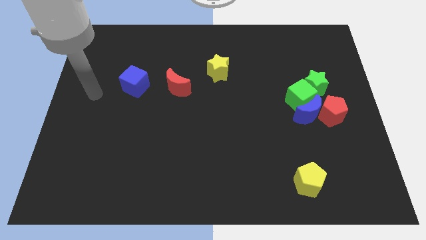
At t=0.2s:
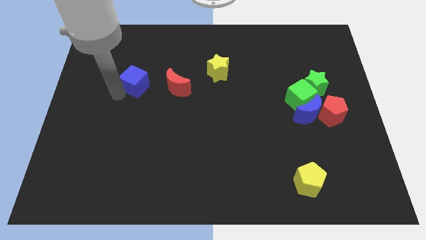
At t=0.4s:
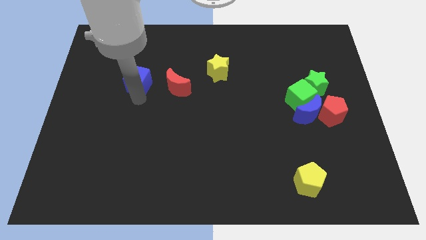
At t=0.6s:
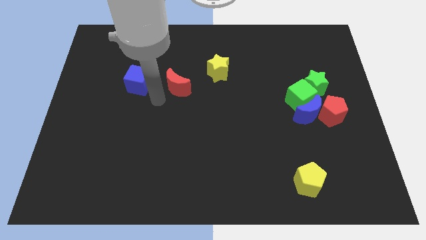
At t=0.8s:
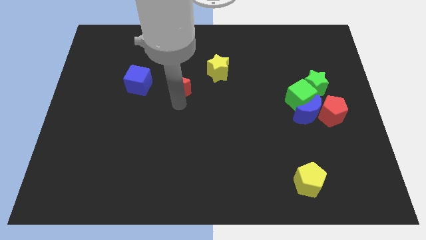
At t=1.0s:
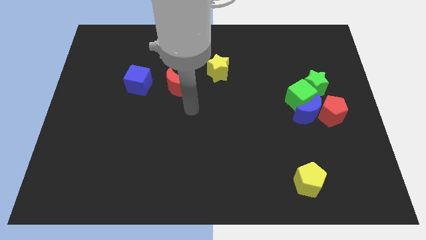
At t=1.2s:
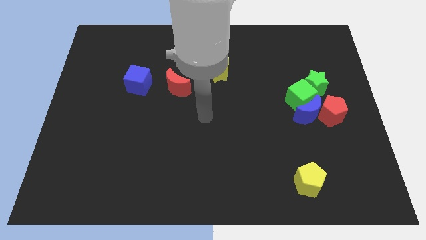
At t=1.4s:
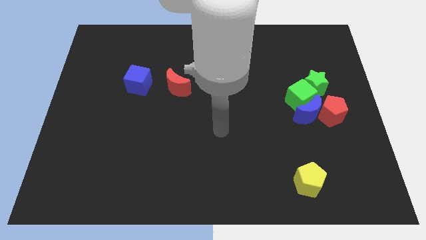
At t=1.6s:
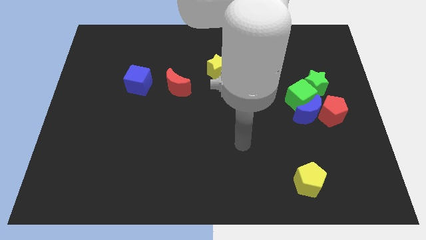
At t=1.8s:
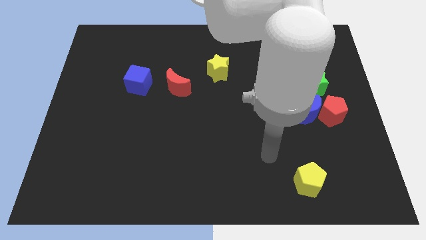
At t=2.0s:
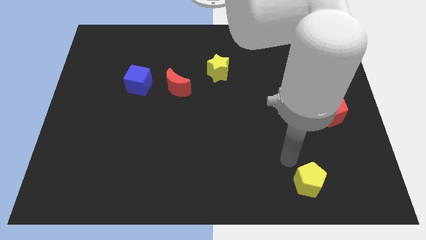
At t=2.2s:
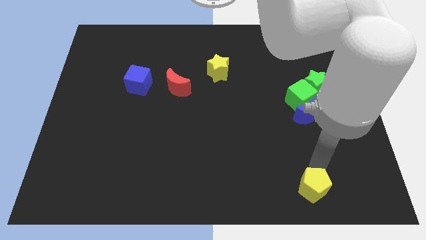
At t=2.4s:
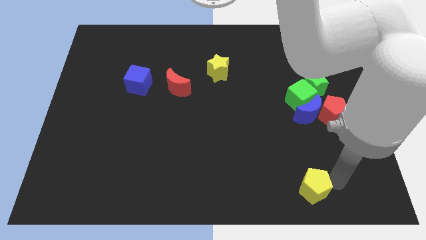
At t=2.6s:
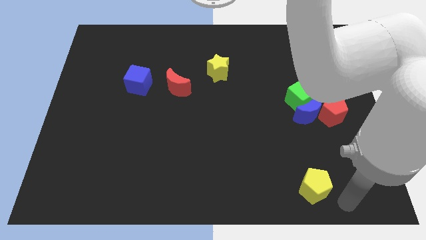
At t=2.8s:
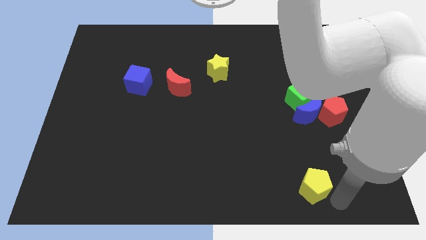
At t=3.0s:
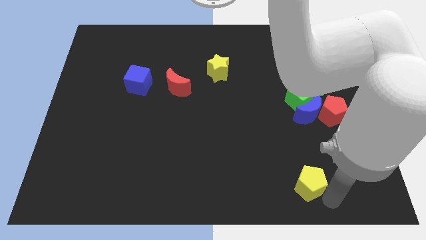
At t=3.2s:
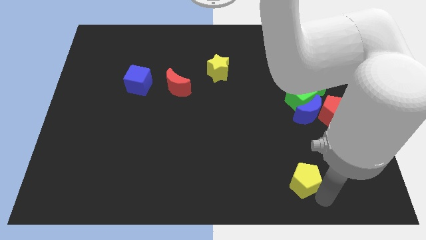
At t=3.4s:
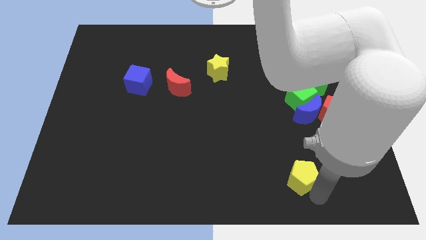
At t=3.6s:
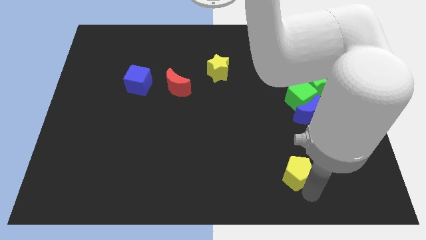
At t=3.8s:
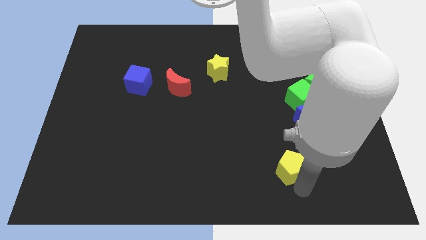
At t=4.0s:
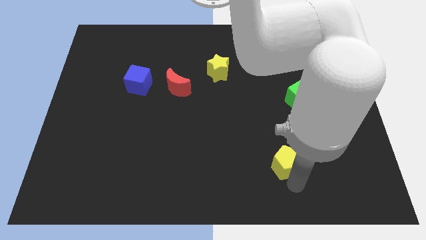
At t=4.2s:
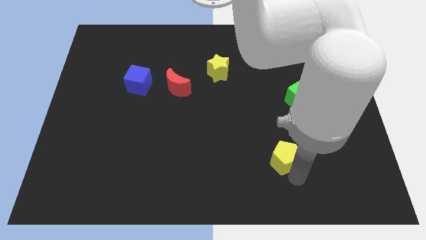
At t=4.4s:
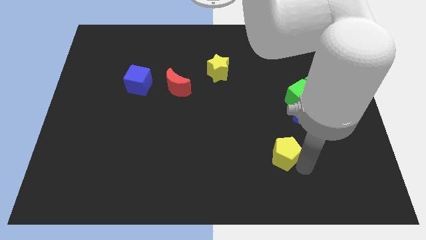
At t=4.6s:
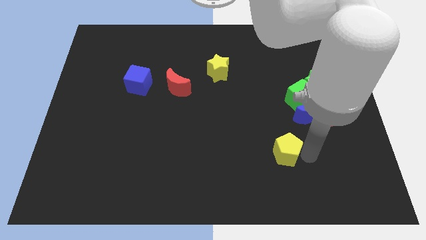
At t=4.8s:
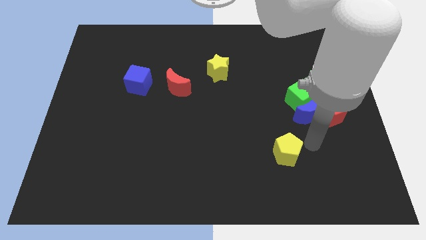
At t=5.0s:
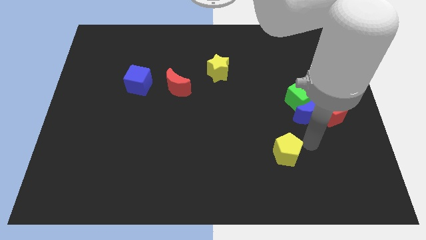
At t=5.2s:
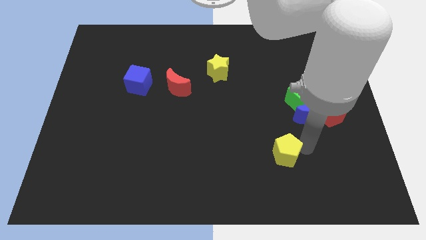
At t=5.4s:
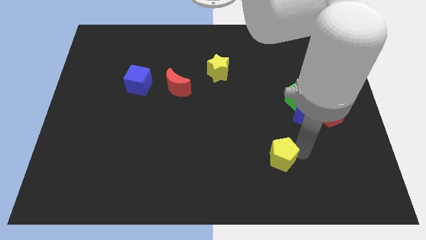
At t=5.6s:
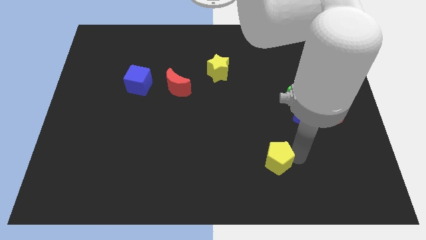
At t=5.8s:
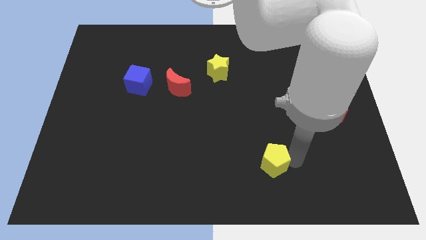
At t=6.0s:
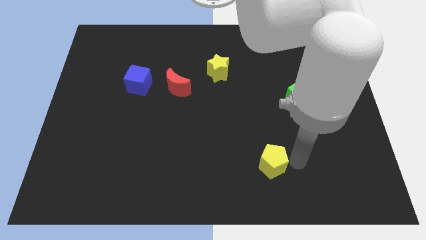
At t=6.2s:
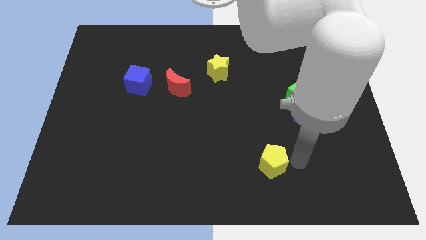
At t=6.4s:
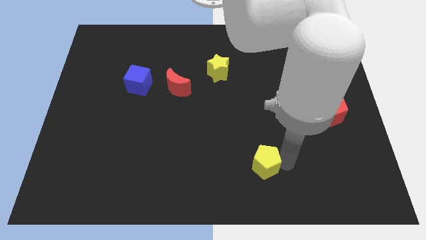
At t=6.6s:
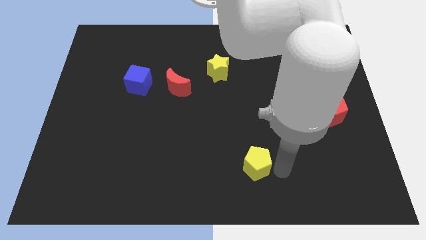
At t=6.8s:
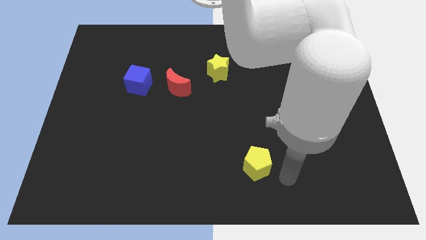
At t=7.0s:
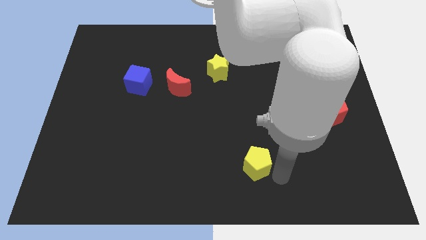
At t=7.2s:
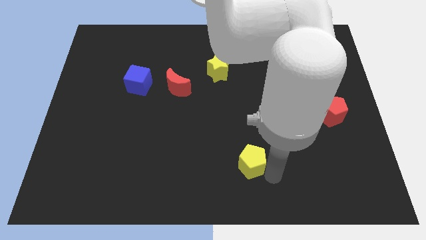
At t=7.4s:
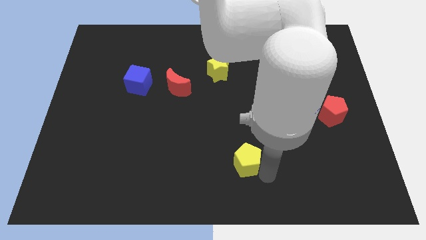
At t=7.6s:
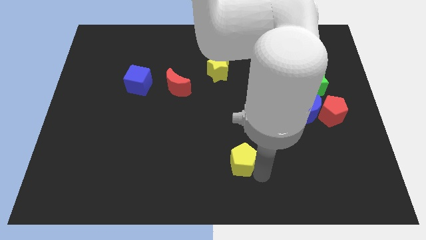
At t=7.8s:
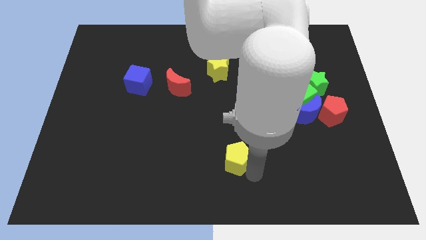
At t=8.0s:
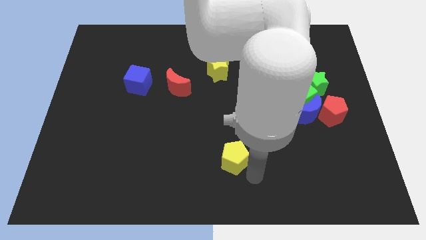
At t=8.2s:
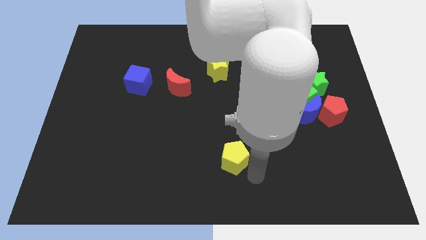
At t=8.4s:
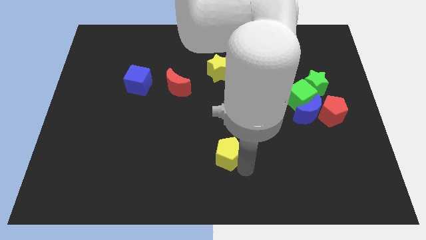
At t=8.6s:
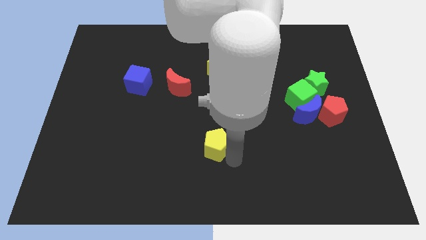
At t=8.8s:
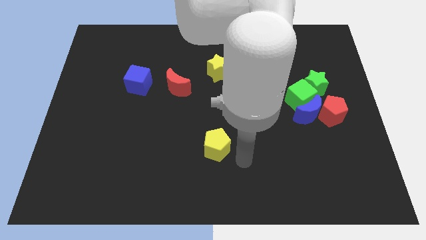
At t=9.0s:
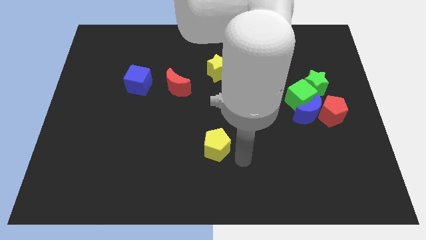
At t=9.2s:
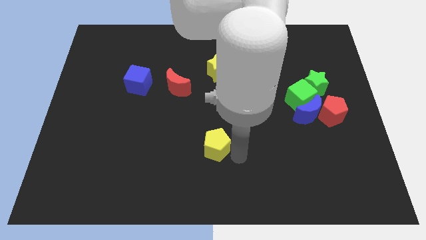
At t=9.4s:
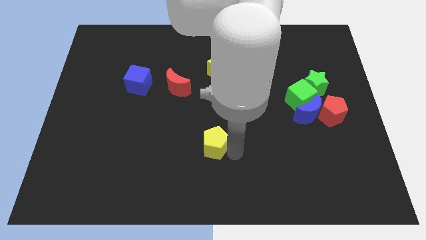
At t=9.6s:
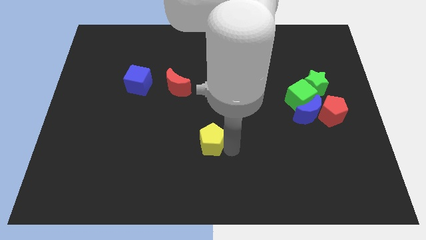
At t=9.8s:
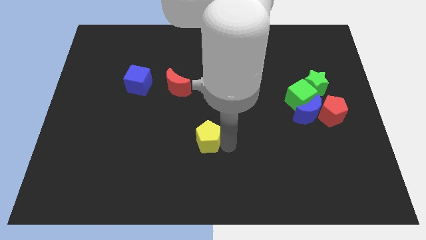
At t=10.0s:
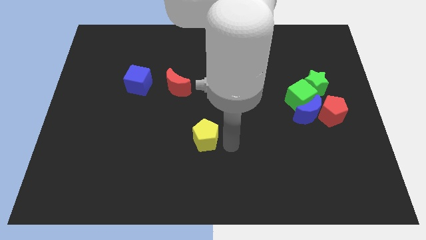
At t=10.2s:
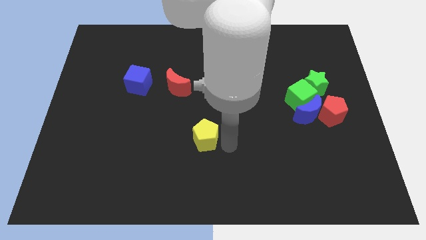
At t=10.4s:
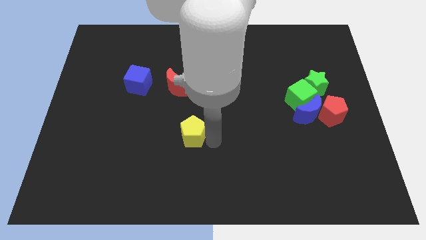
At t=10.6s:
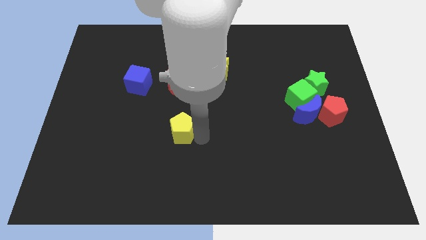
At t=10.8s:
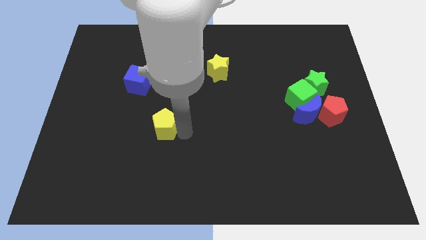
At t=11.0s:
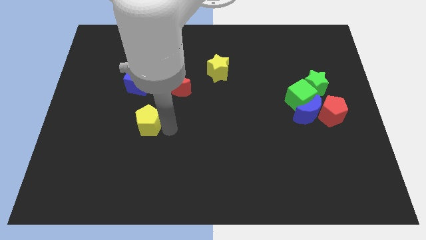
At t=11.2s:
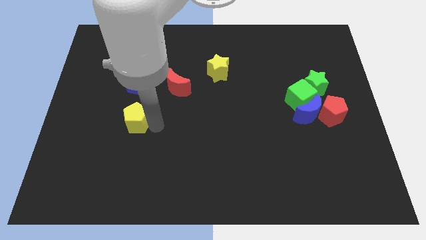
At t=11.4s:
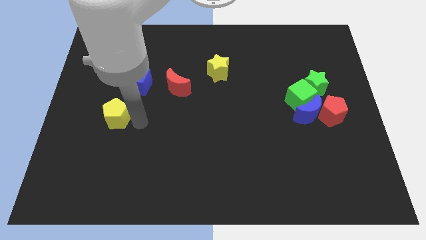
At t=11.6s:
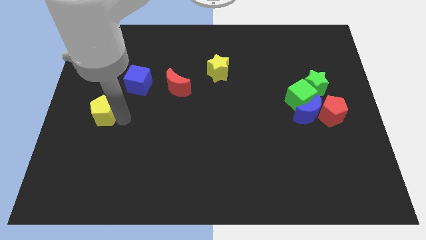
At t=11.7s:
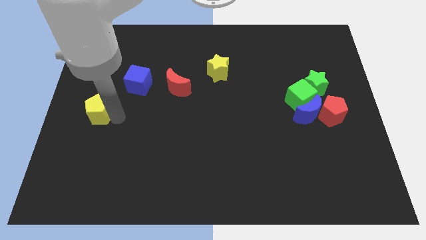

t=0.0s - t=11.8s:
move the yellow pentagon to the left side
